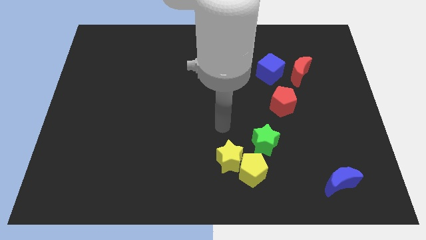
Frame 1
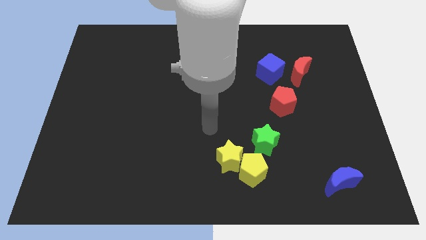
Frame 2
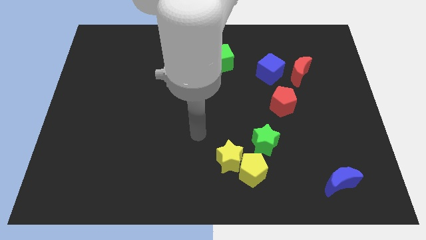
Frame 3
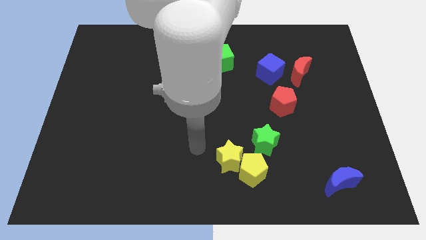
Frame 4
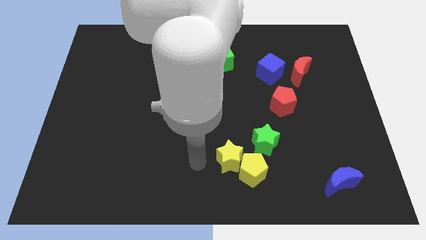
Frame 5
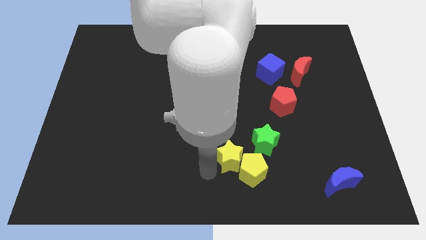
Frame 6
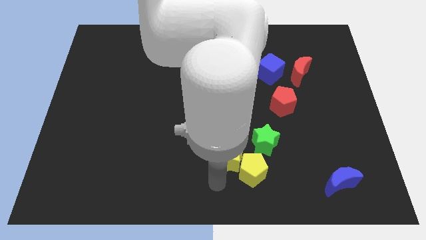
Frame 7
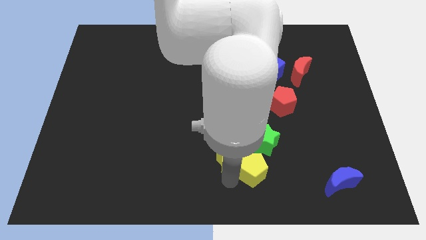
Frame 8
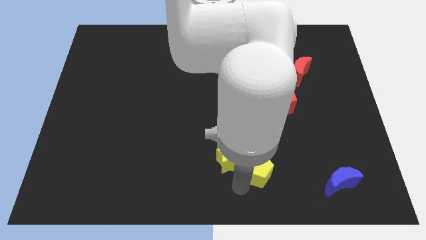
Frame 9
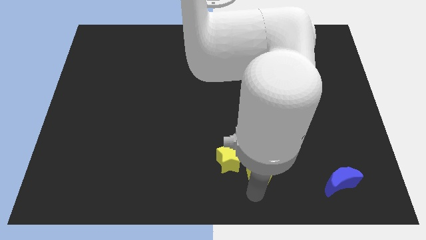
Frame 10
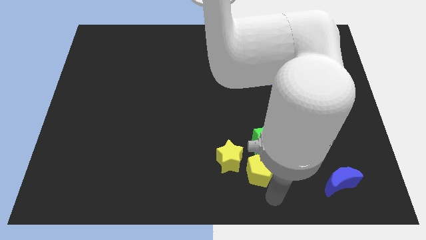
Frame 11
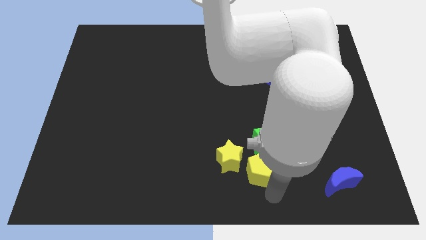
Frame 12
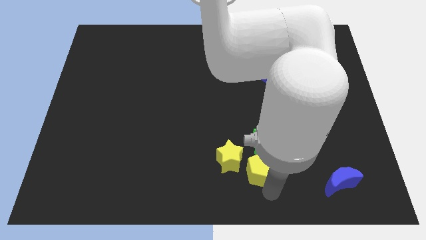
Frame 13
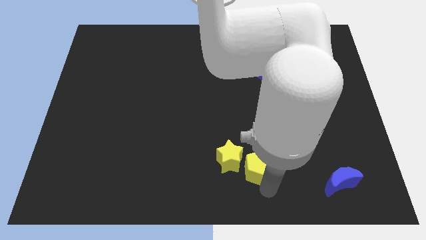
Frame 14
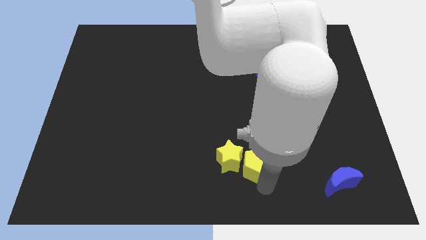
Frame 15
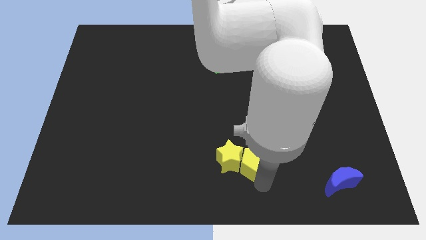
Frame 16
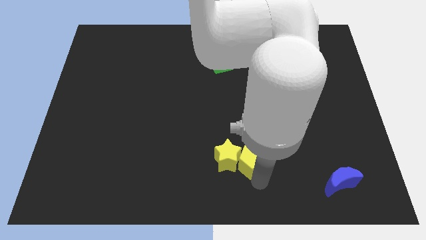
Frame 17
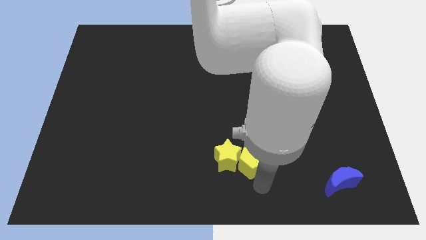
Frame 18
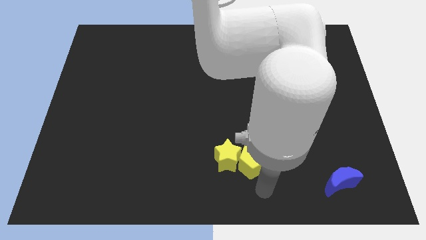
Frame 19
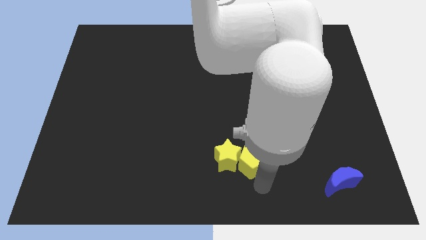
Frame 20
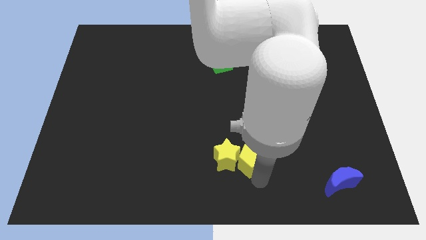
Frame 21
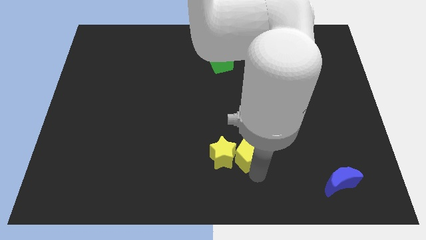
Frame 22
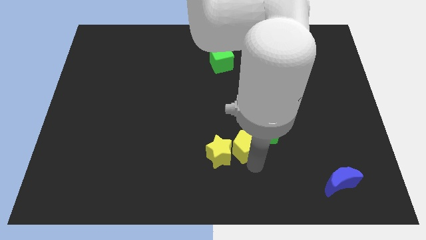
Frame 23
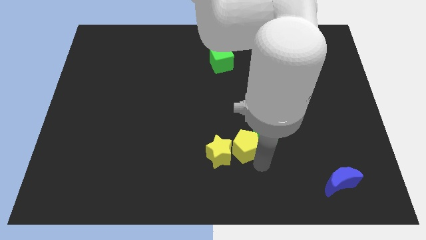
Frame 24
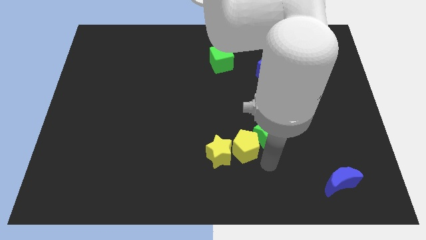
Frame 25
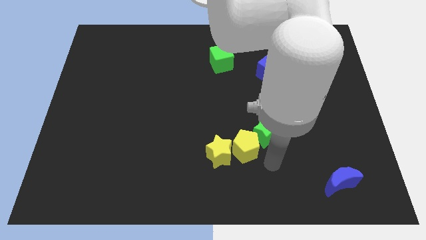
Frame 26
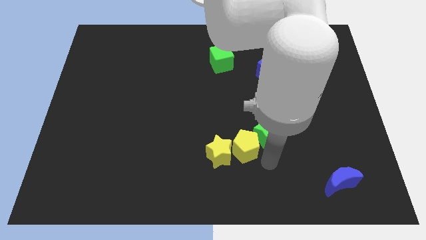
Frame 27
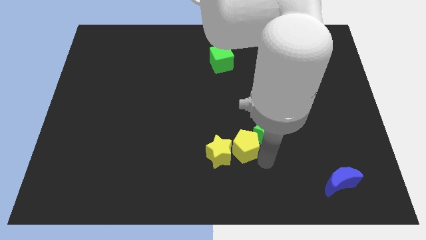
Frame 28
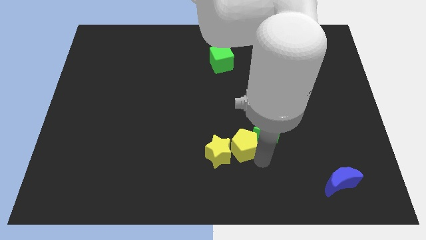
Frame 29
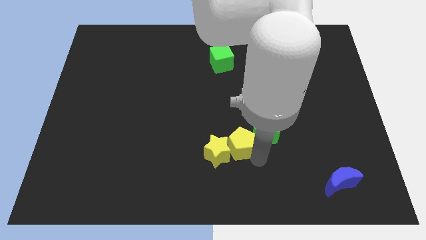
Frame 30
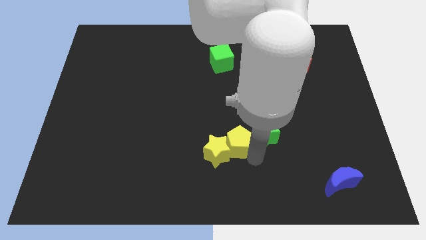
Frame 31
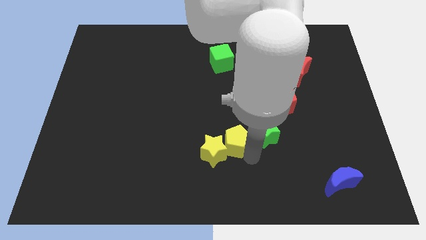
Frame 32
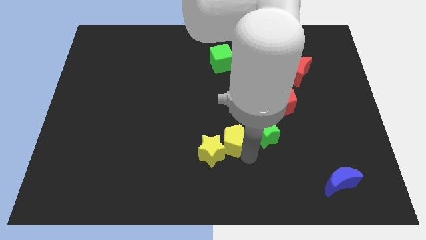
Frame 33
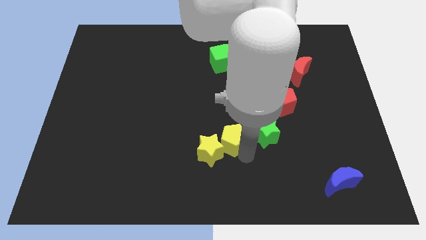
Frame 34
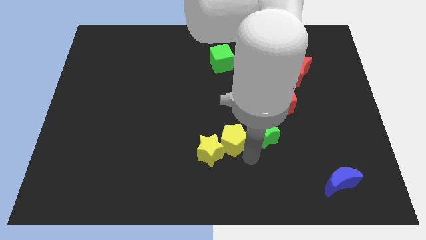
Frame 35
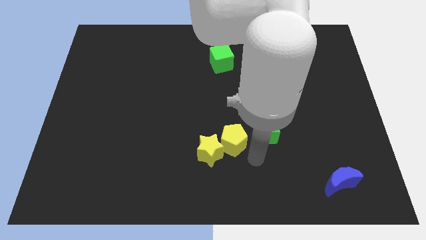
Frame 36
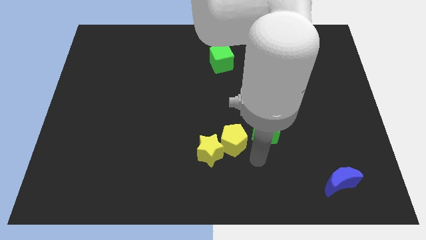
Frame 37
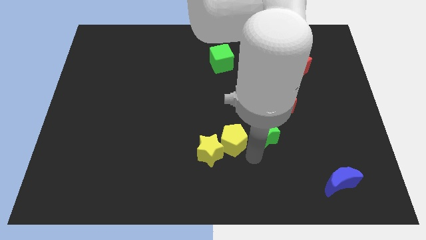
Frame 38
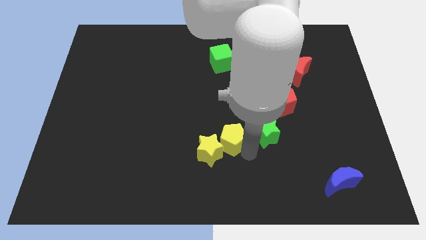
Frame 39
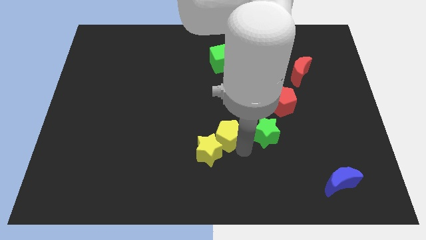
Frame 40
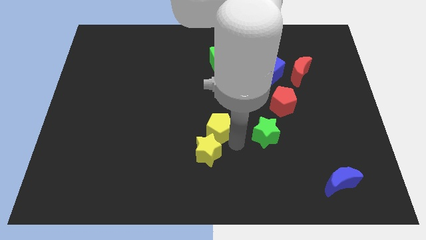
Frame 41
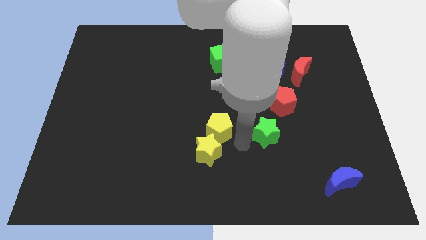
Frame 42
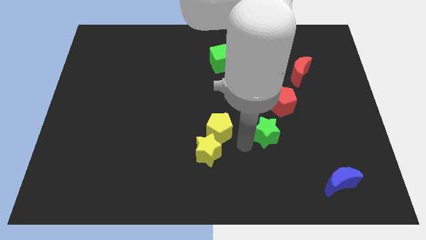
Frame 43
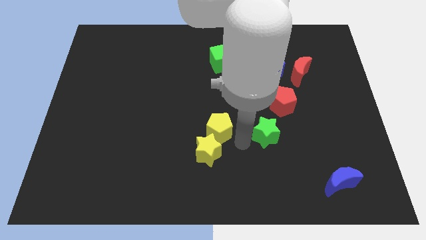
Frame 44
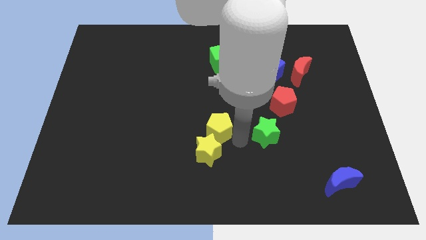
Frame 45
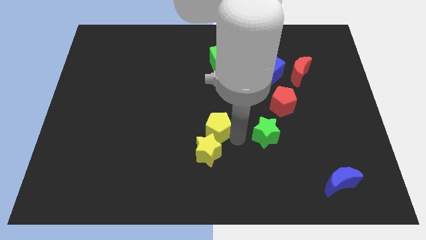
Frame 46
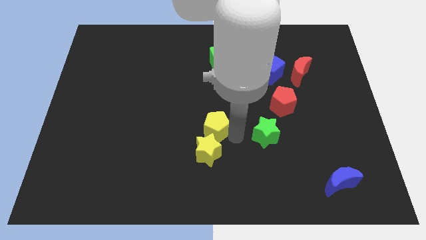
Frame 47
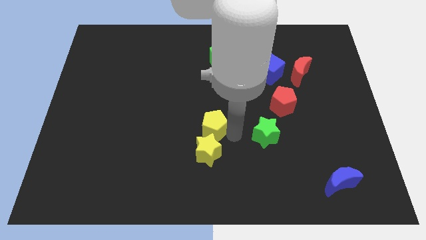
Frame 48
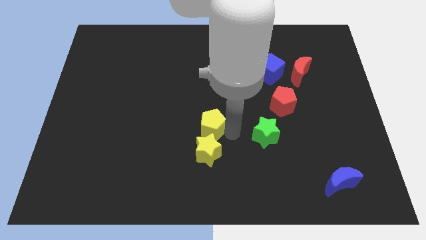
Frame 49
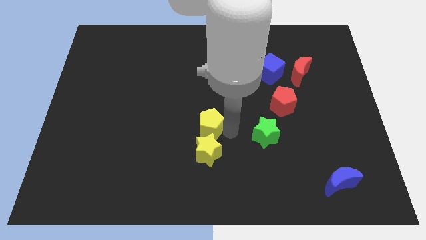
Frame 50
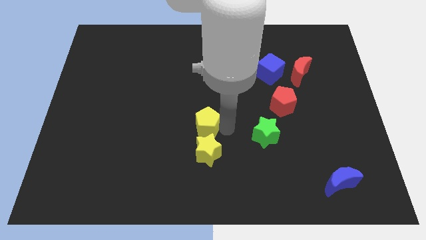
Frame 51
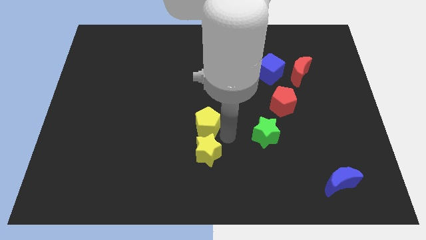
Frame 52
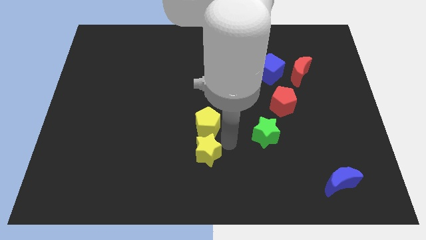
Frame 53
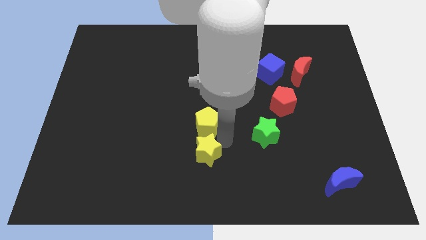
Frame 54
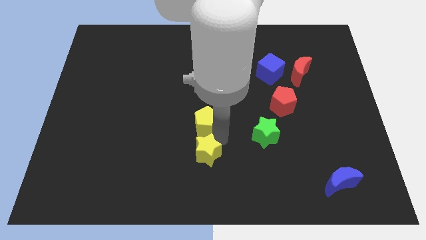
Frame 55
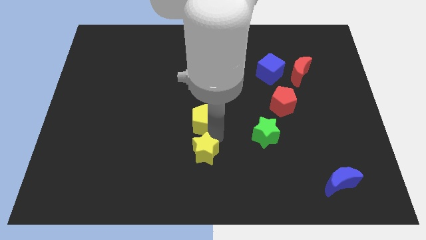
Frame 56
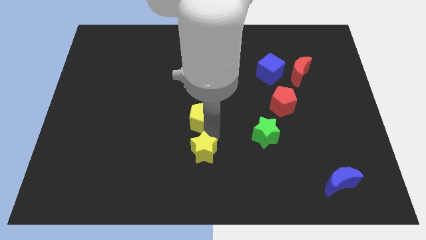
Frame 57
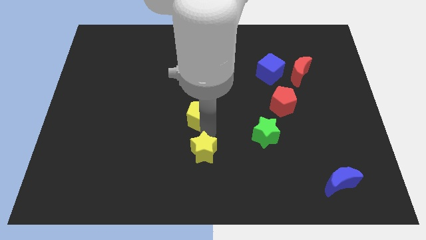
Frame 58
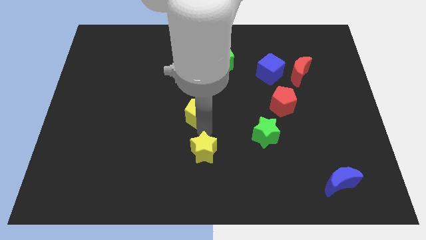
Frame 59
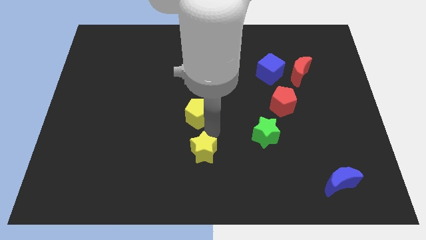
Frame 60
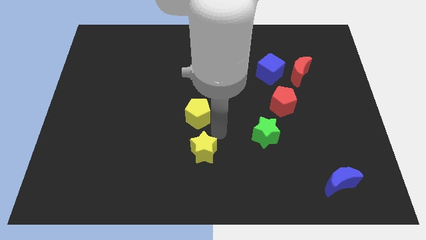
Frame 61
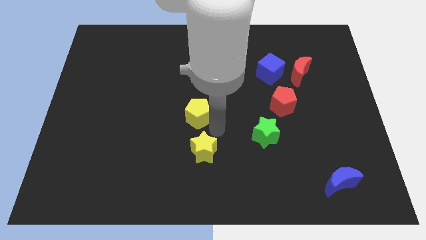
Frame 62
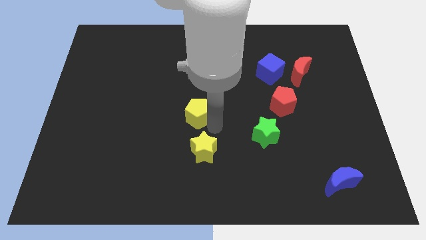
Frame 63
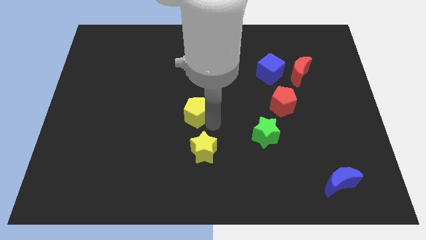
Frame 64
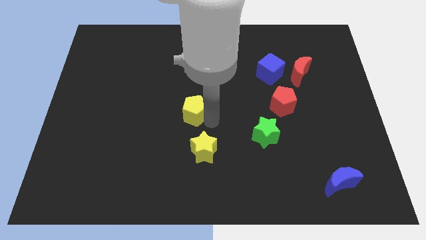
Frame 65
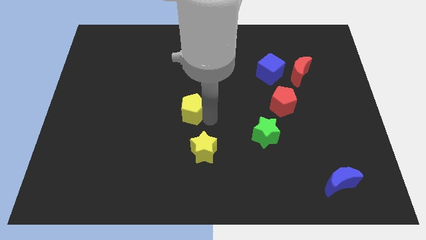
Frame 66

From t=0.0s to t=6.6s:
slide the yellow pentagon upwards and left diagonally

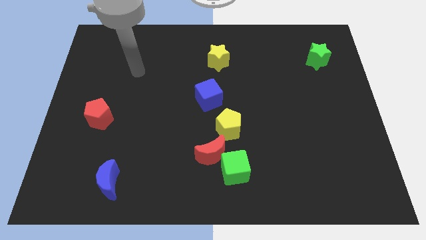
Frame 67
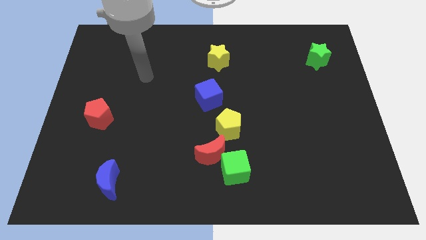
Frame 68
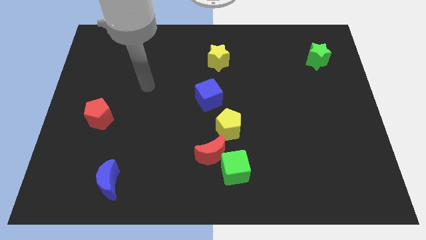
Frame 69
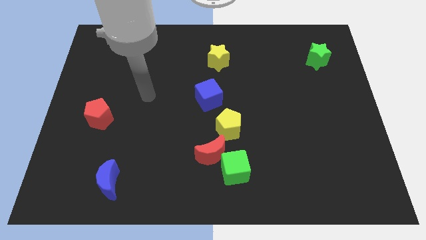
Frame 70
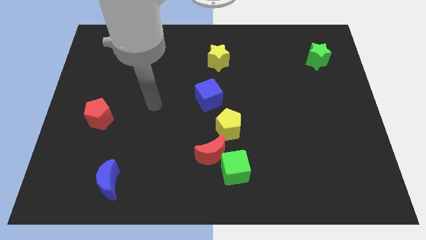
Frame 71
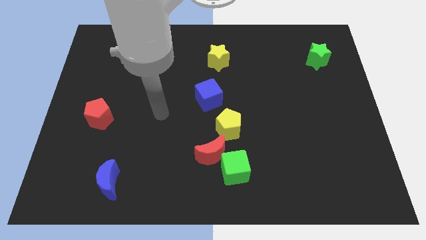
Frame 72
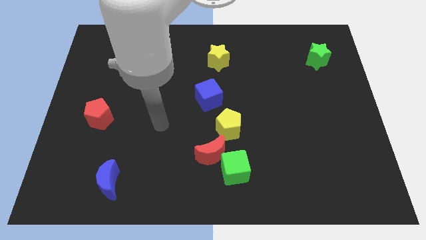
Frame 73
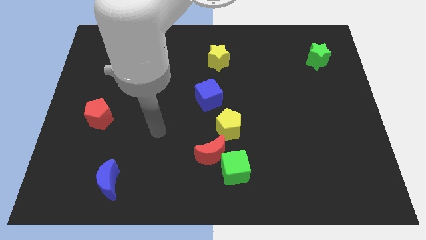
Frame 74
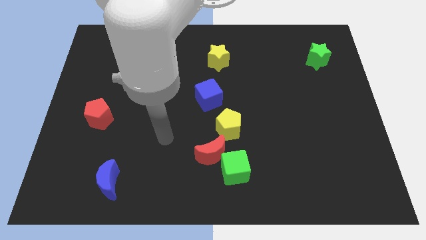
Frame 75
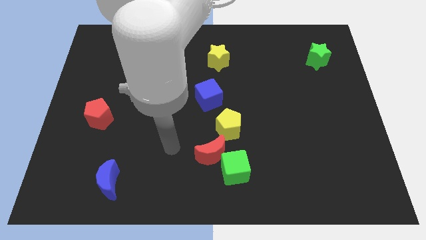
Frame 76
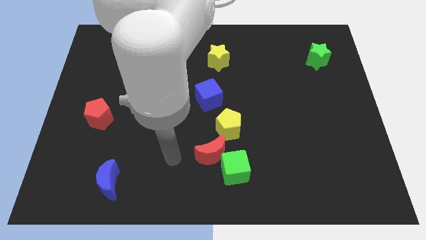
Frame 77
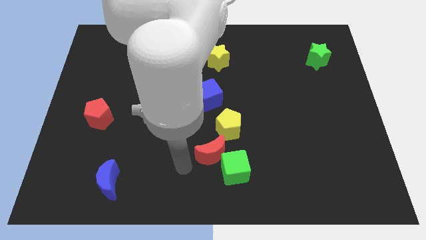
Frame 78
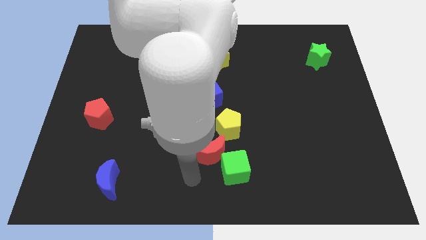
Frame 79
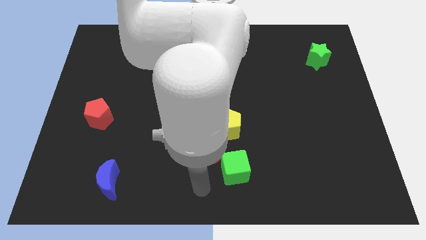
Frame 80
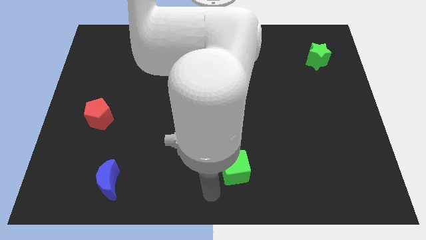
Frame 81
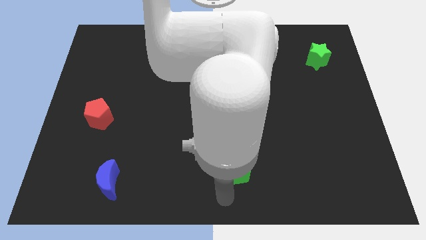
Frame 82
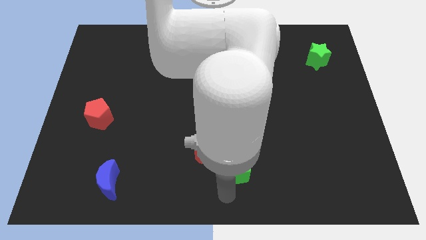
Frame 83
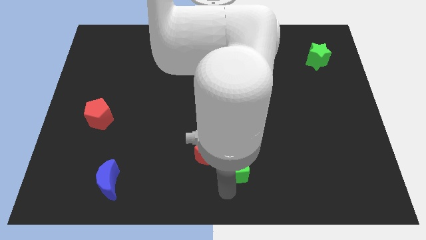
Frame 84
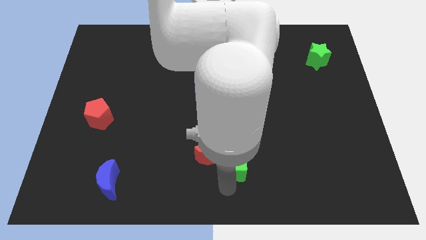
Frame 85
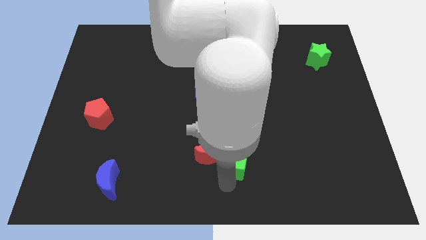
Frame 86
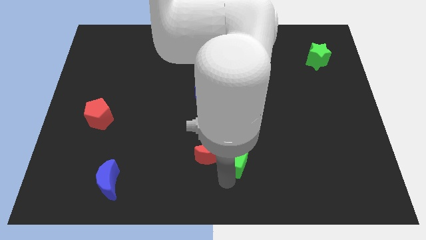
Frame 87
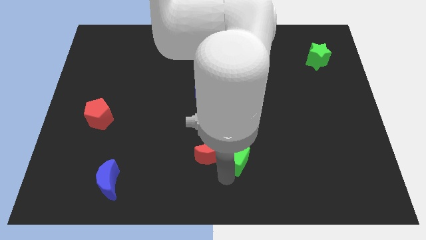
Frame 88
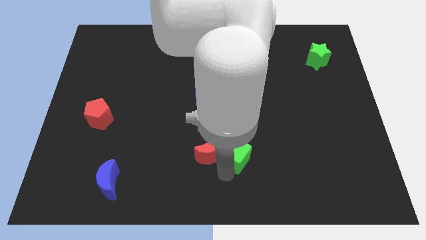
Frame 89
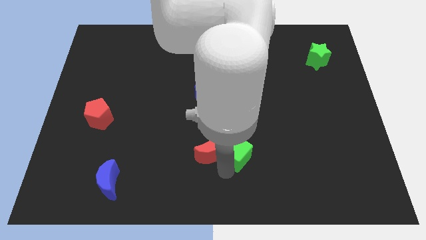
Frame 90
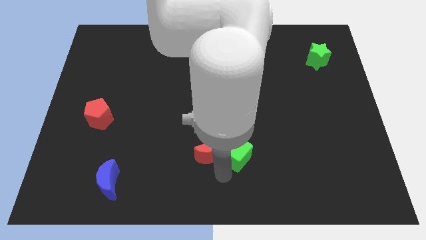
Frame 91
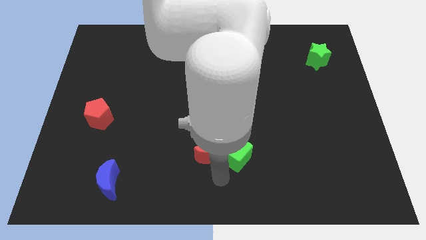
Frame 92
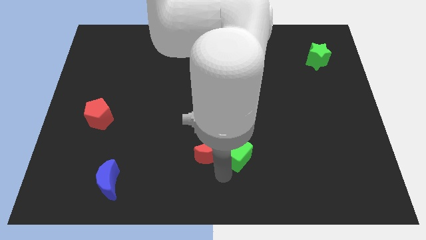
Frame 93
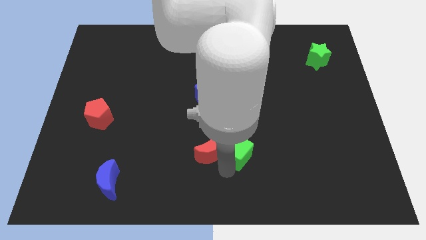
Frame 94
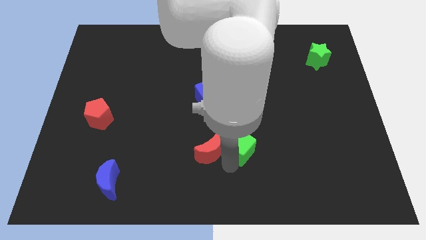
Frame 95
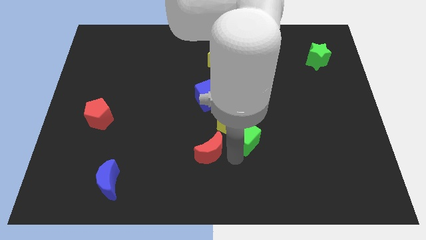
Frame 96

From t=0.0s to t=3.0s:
slightly push the green cube up
